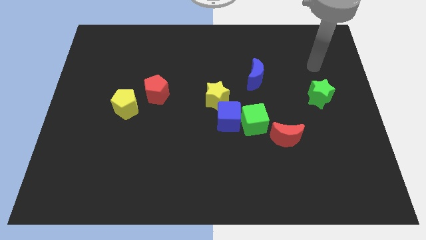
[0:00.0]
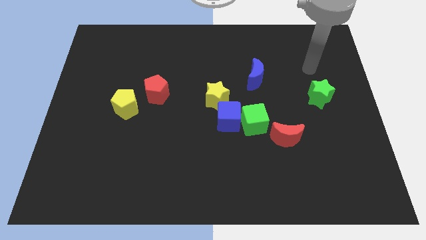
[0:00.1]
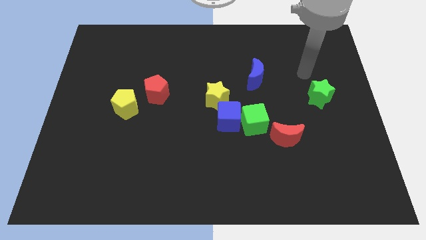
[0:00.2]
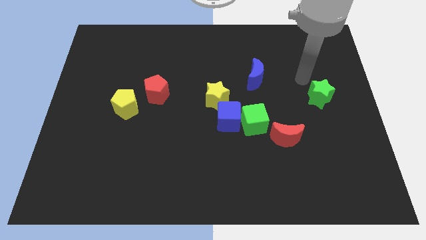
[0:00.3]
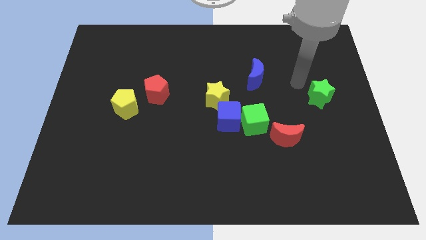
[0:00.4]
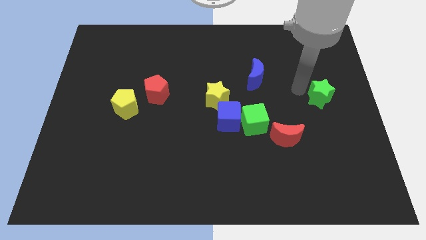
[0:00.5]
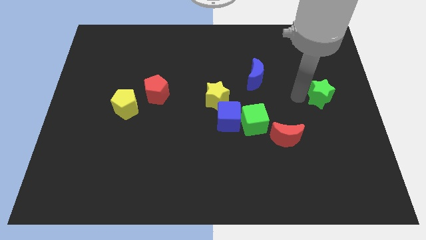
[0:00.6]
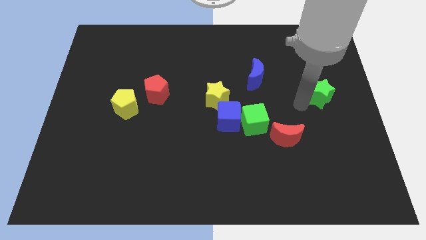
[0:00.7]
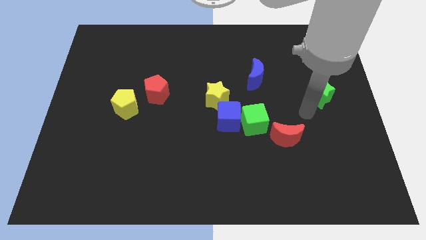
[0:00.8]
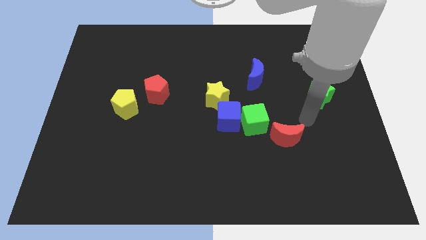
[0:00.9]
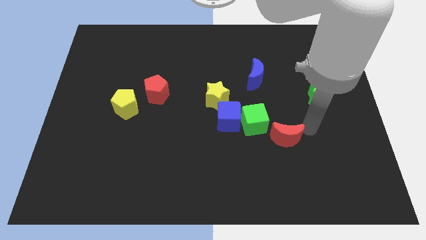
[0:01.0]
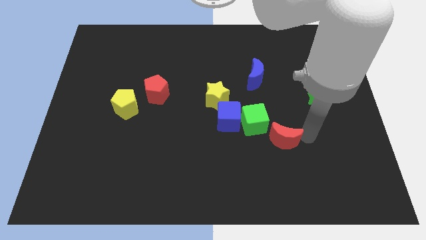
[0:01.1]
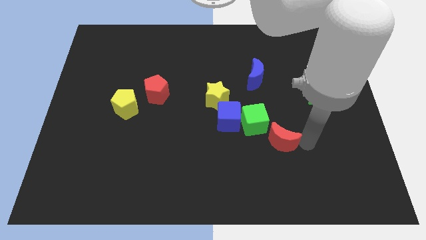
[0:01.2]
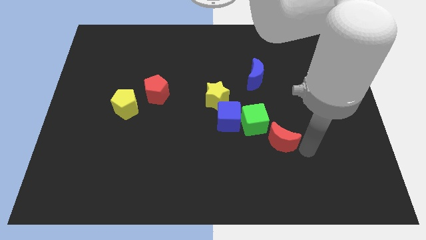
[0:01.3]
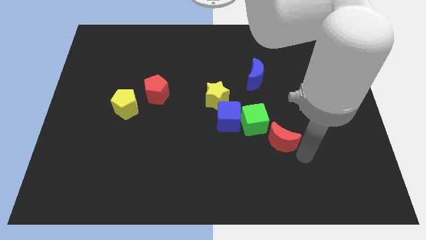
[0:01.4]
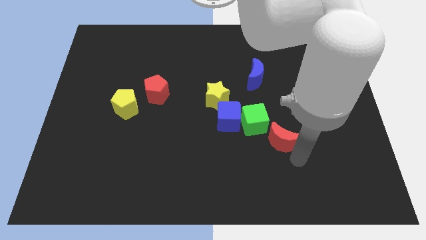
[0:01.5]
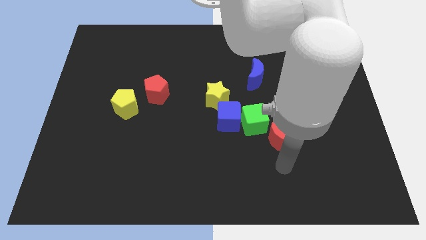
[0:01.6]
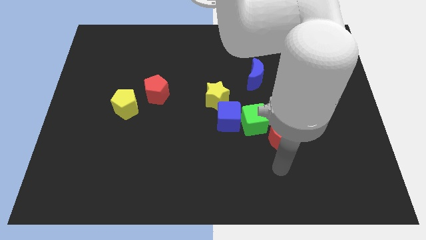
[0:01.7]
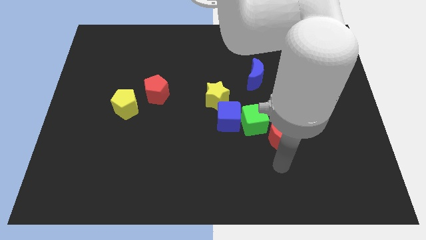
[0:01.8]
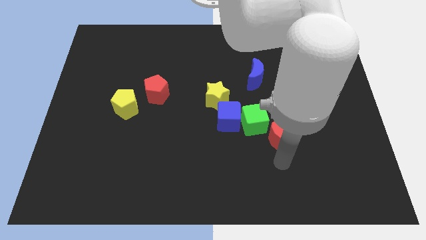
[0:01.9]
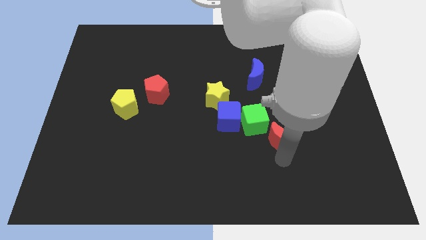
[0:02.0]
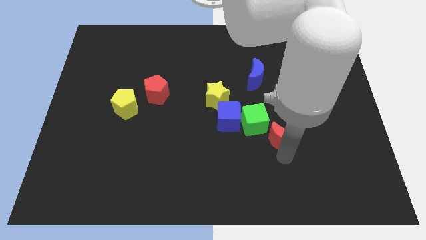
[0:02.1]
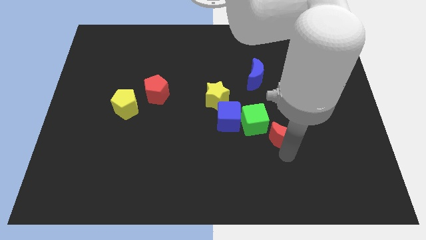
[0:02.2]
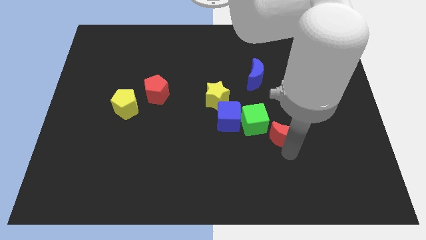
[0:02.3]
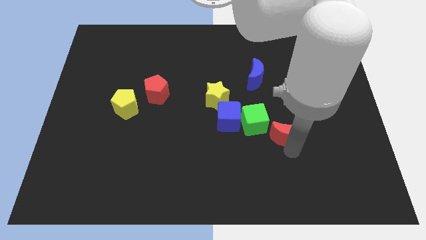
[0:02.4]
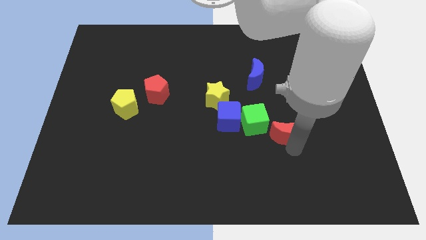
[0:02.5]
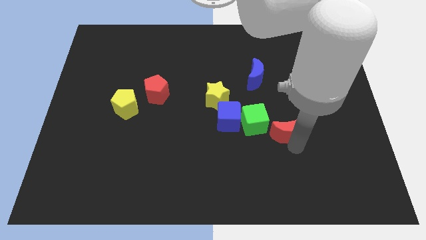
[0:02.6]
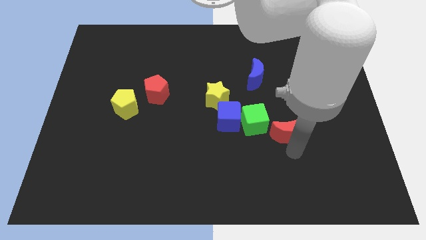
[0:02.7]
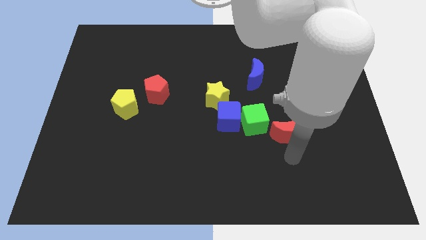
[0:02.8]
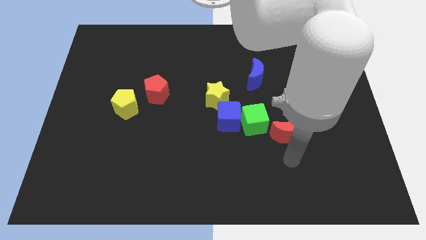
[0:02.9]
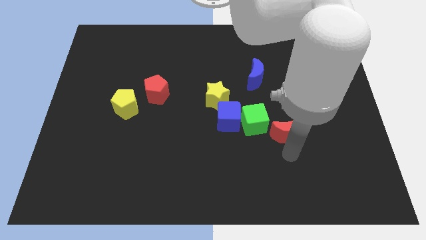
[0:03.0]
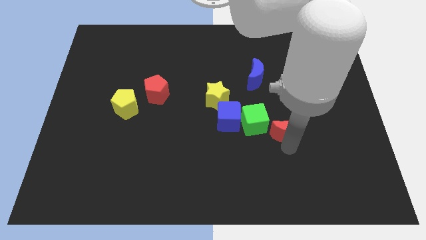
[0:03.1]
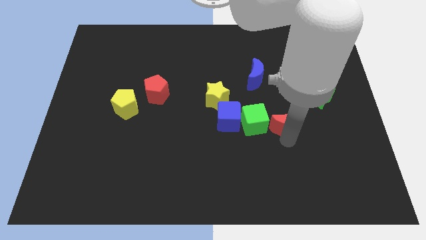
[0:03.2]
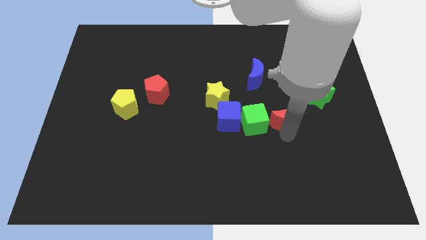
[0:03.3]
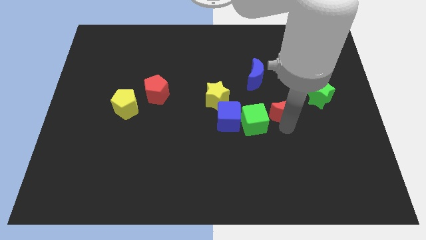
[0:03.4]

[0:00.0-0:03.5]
move the red moon upwards a little bit

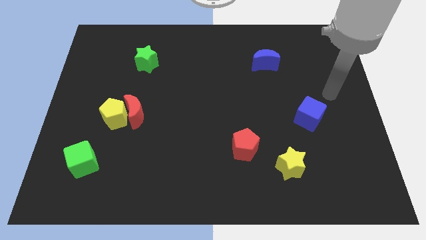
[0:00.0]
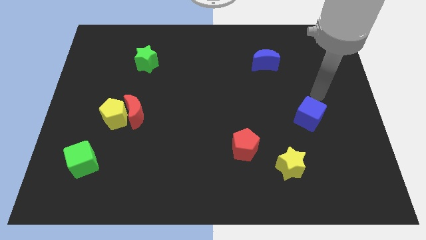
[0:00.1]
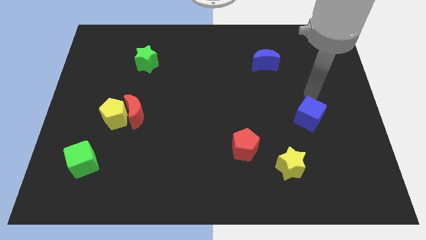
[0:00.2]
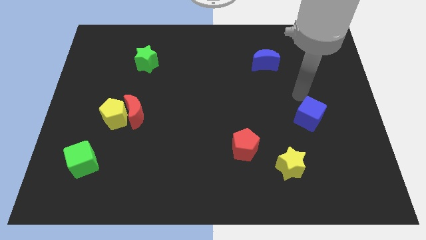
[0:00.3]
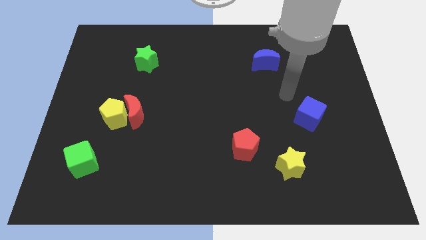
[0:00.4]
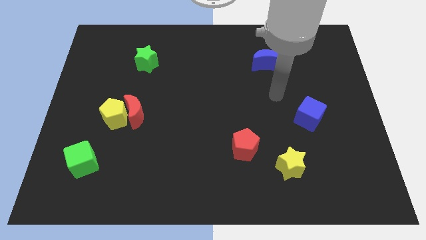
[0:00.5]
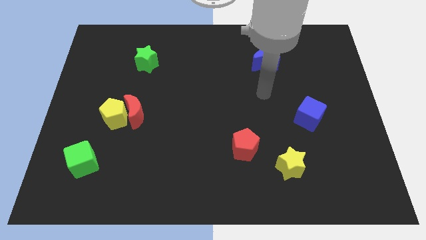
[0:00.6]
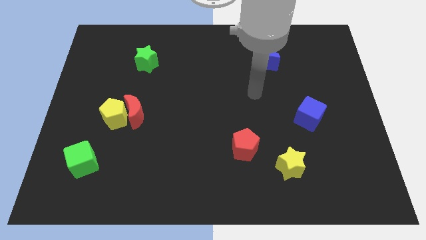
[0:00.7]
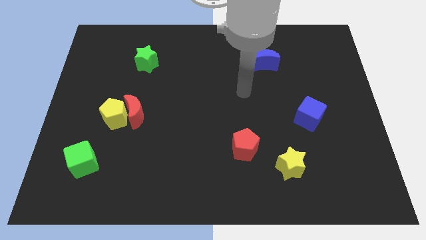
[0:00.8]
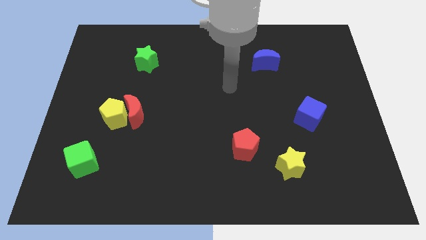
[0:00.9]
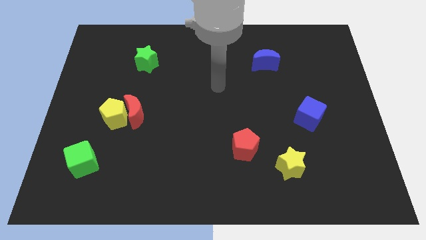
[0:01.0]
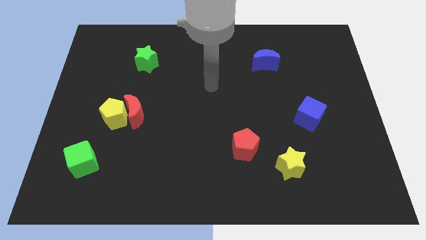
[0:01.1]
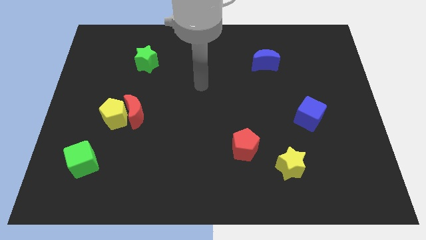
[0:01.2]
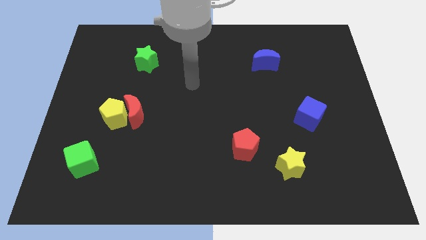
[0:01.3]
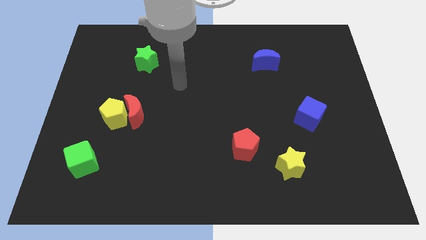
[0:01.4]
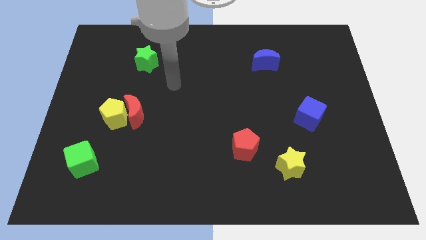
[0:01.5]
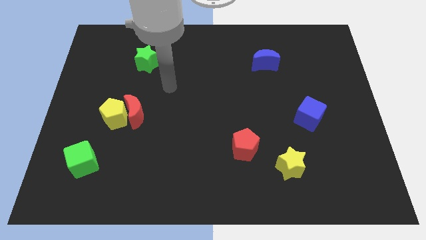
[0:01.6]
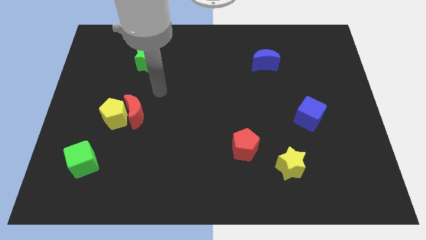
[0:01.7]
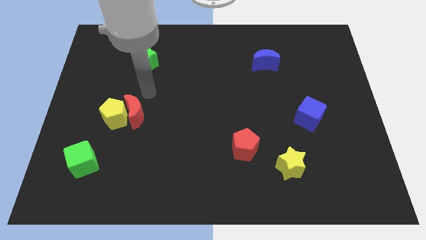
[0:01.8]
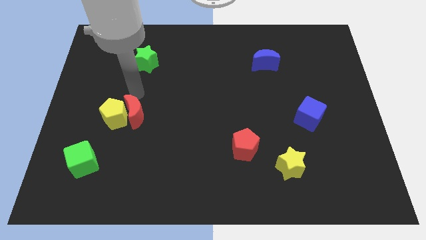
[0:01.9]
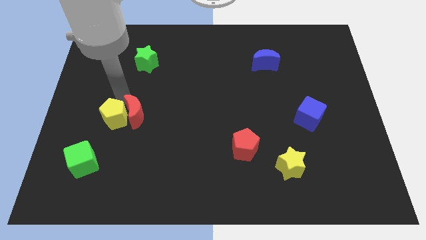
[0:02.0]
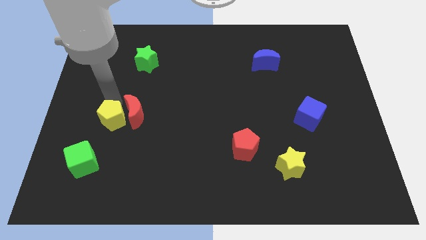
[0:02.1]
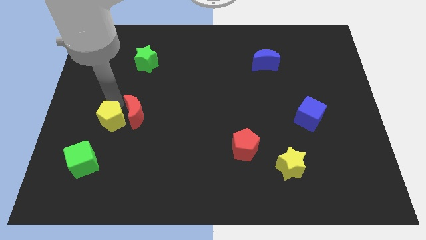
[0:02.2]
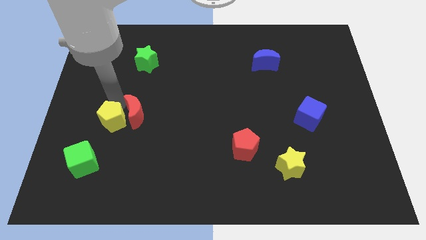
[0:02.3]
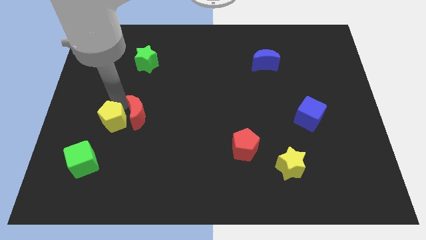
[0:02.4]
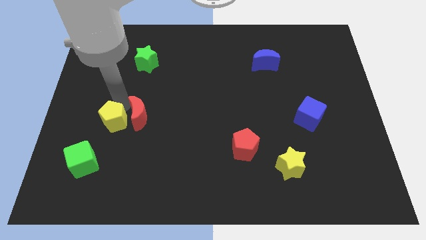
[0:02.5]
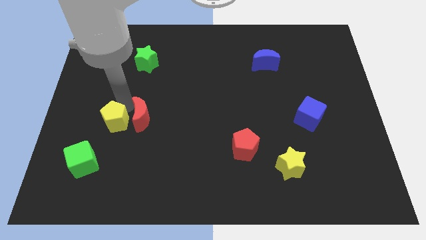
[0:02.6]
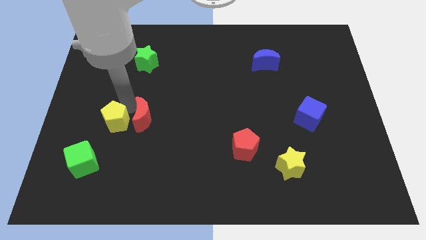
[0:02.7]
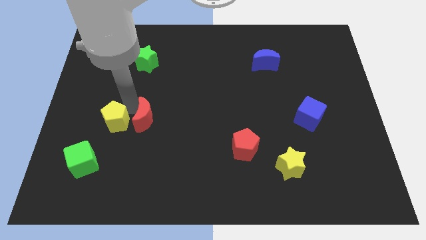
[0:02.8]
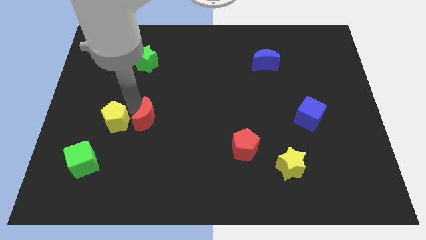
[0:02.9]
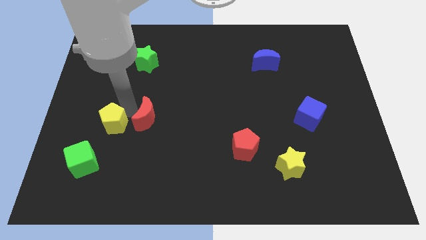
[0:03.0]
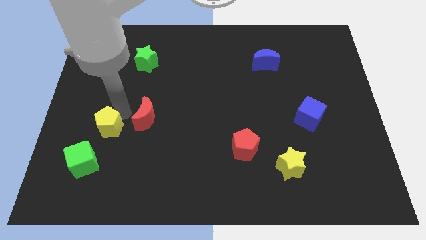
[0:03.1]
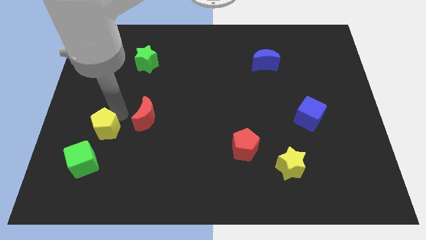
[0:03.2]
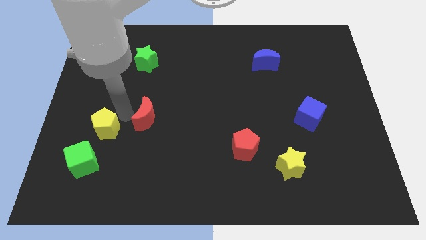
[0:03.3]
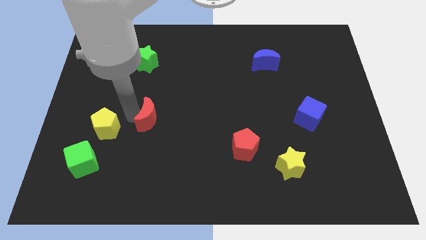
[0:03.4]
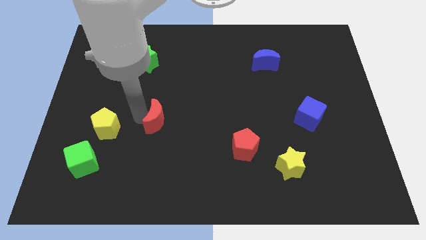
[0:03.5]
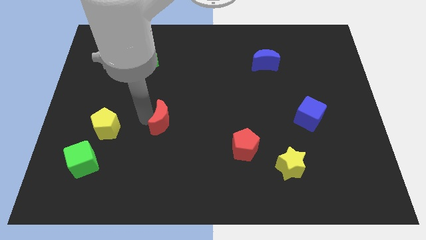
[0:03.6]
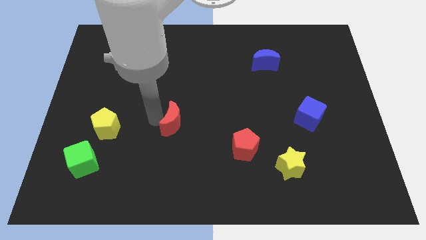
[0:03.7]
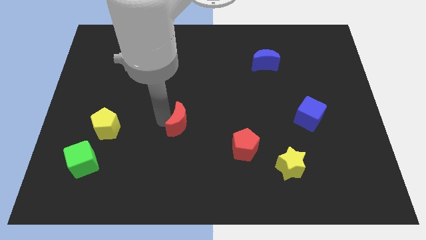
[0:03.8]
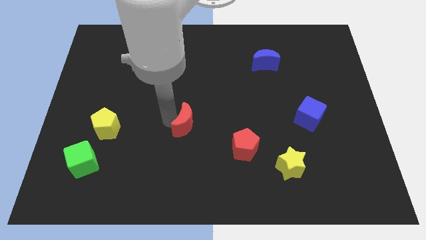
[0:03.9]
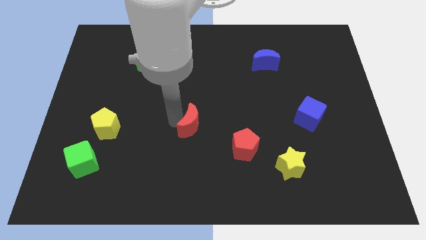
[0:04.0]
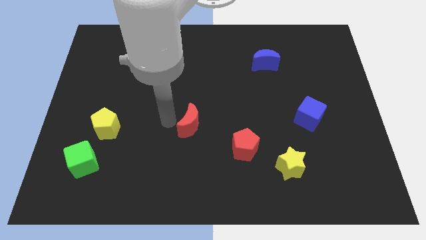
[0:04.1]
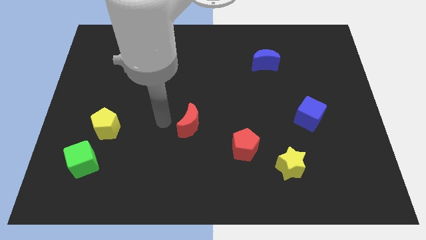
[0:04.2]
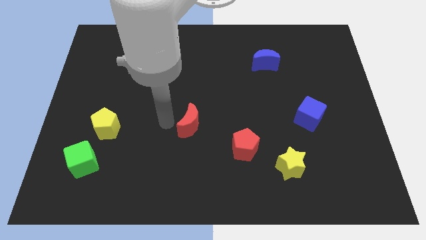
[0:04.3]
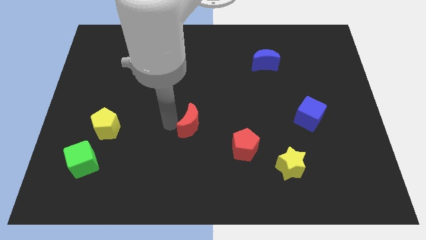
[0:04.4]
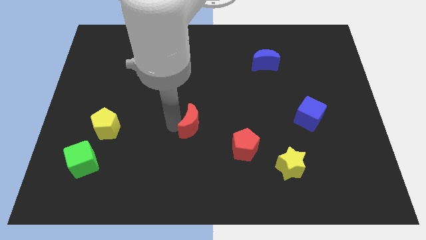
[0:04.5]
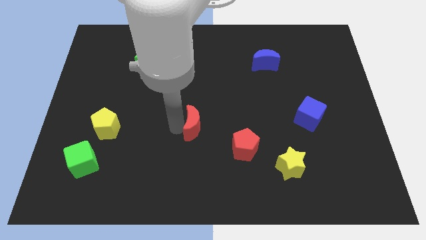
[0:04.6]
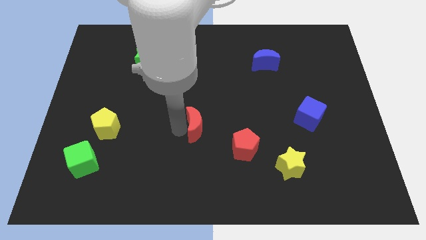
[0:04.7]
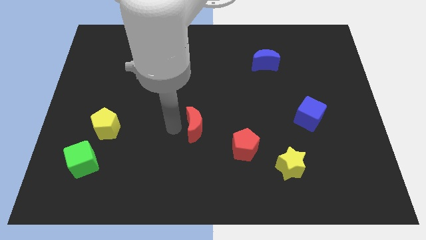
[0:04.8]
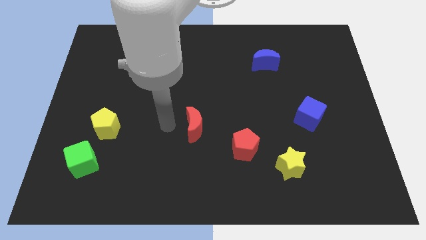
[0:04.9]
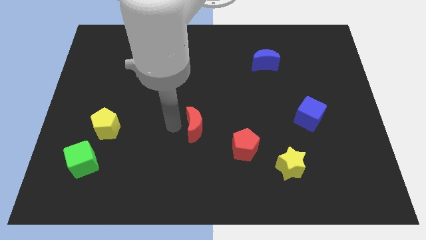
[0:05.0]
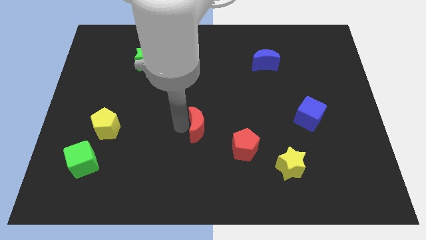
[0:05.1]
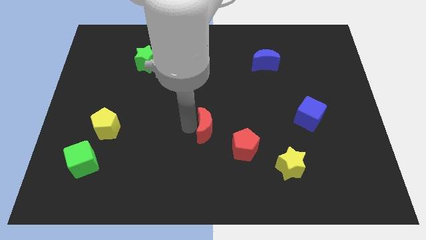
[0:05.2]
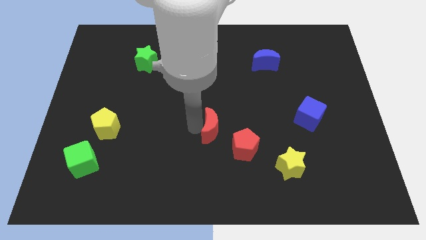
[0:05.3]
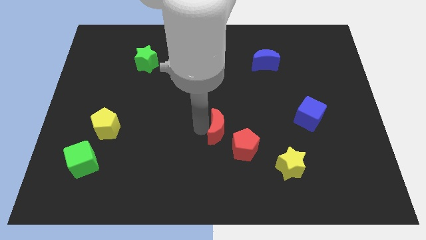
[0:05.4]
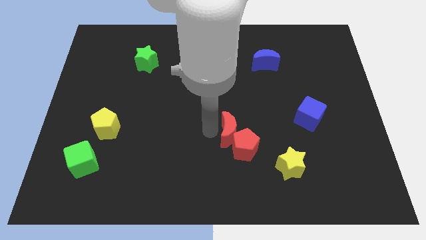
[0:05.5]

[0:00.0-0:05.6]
slide the red moon right
